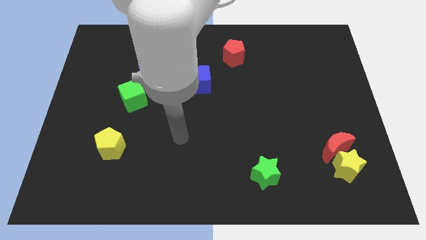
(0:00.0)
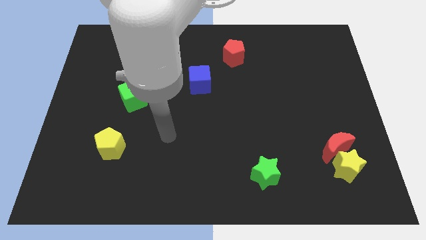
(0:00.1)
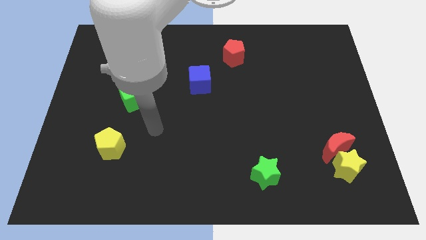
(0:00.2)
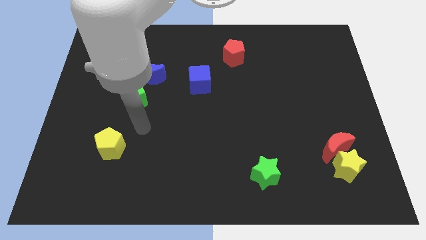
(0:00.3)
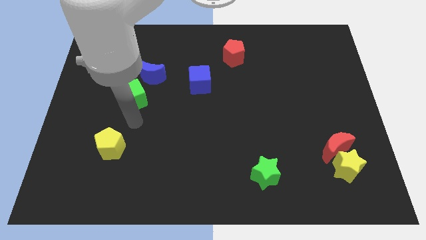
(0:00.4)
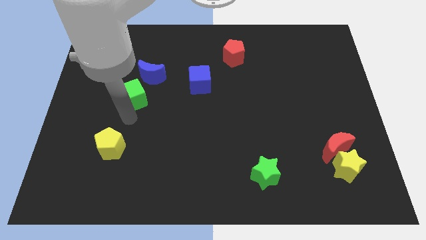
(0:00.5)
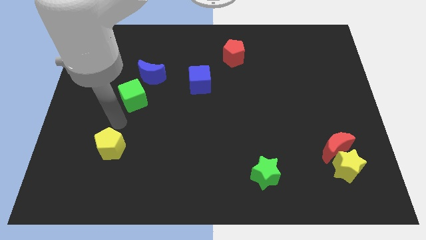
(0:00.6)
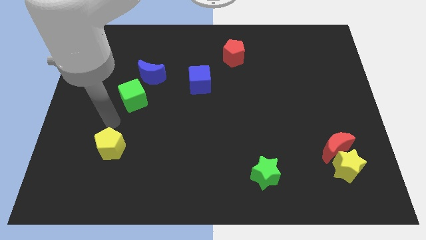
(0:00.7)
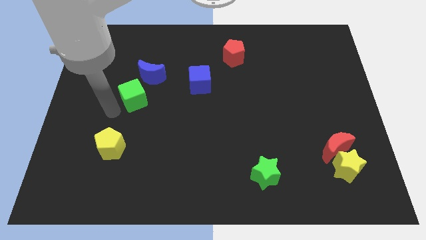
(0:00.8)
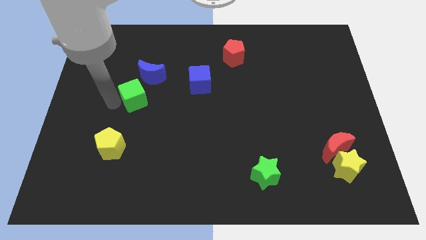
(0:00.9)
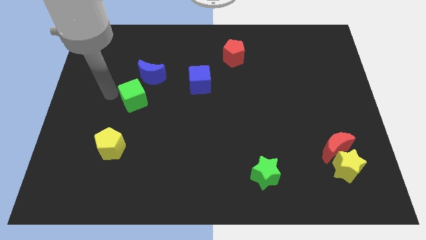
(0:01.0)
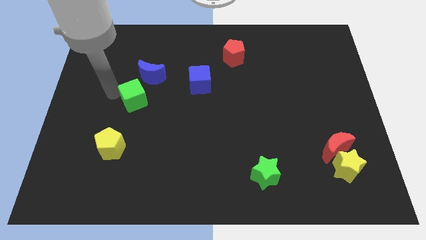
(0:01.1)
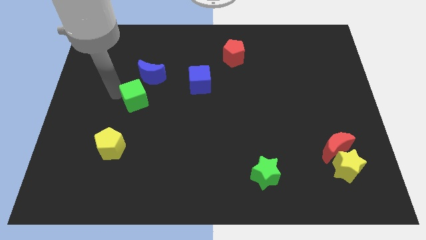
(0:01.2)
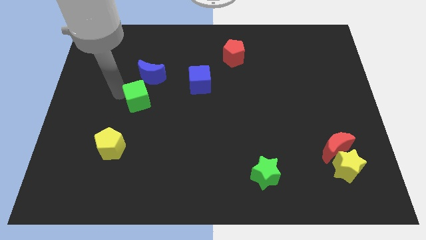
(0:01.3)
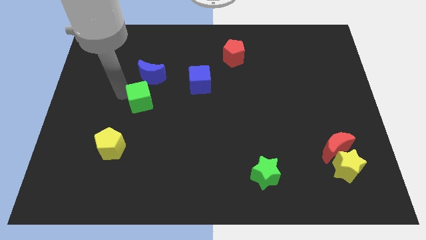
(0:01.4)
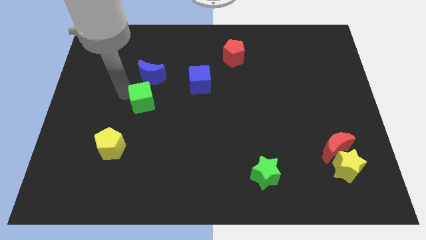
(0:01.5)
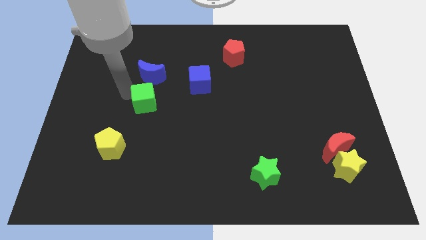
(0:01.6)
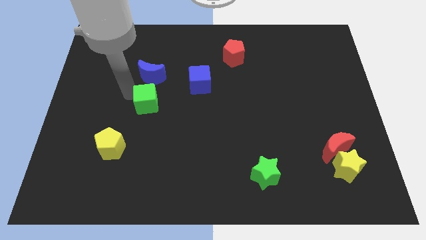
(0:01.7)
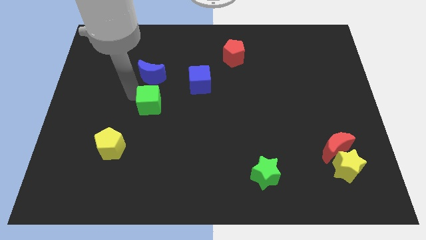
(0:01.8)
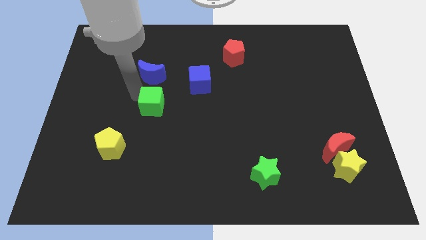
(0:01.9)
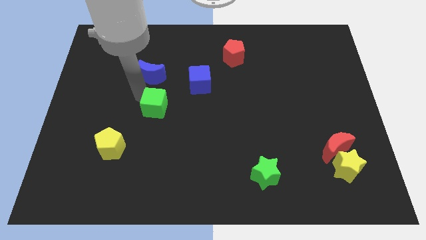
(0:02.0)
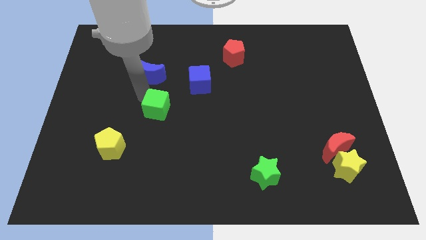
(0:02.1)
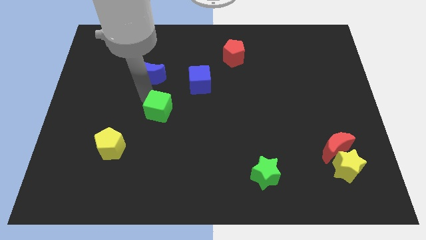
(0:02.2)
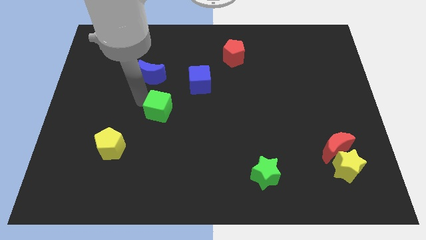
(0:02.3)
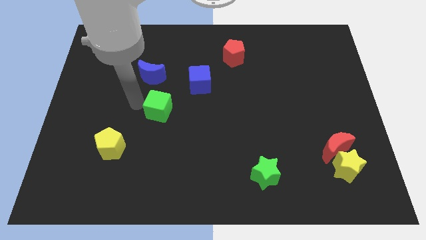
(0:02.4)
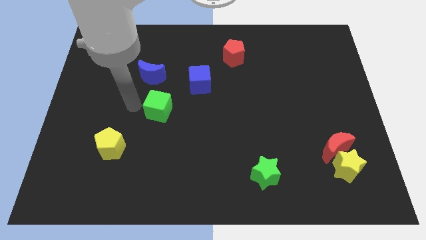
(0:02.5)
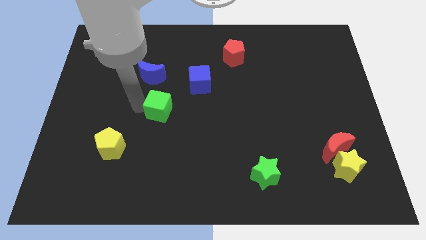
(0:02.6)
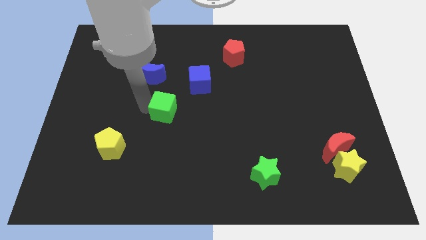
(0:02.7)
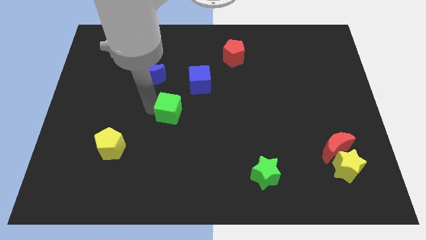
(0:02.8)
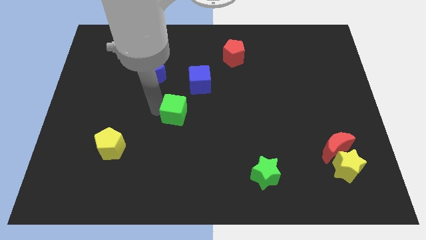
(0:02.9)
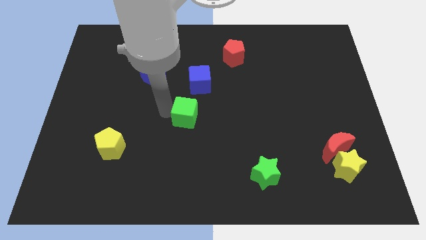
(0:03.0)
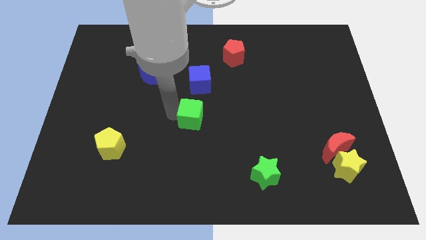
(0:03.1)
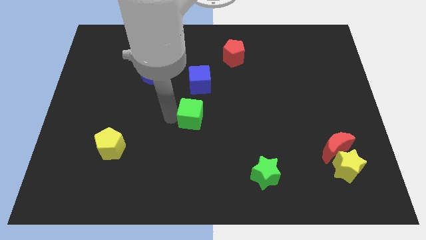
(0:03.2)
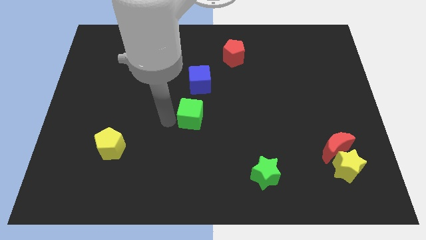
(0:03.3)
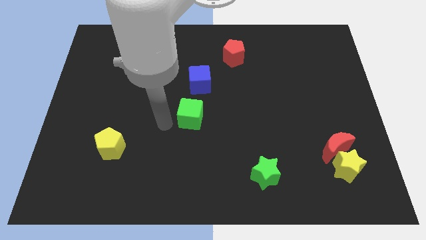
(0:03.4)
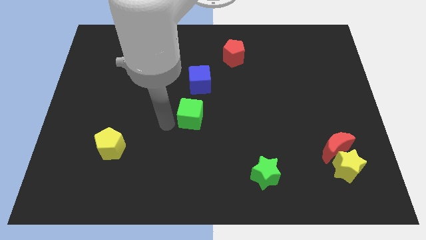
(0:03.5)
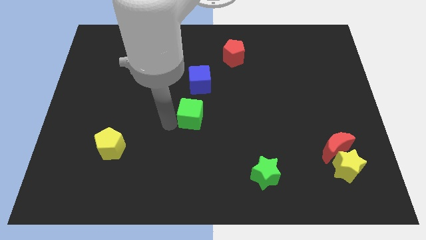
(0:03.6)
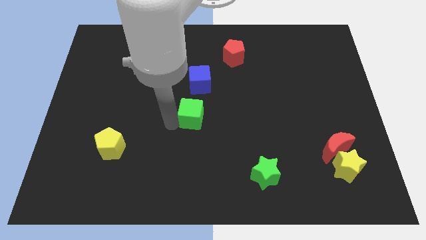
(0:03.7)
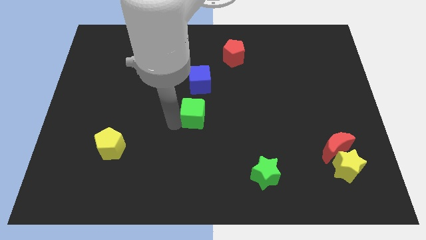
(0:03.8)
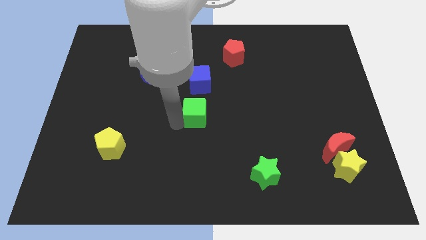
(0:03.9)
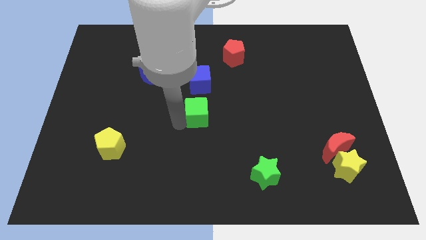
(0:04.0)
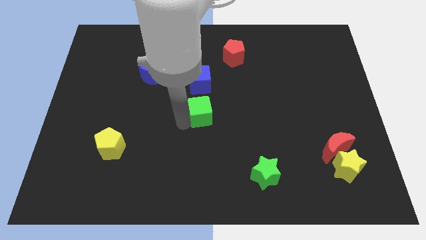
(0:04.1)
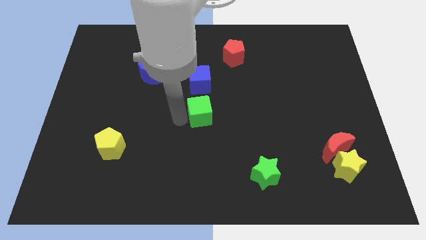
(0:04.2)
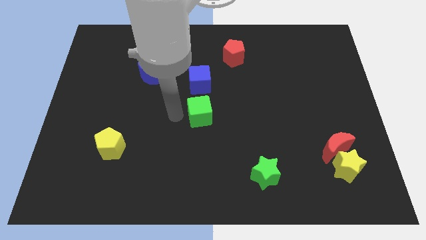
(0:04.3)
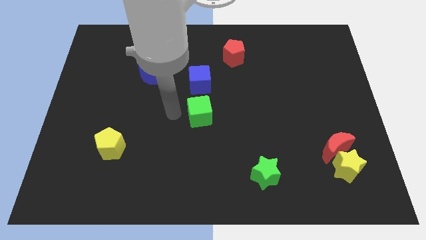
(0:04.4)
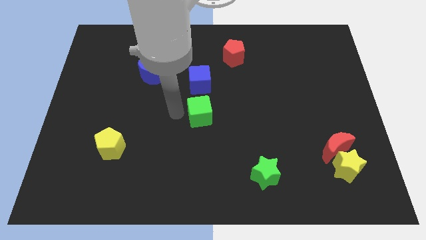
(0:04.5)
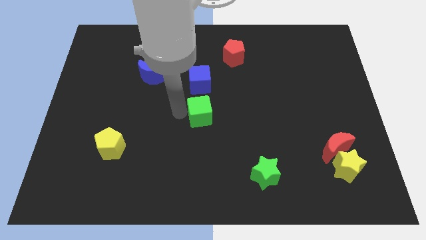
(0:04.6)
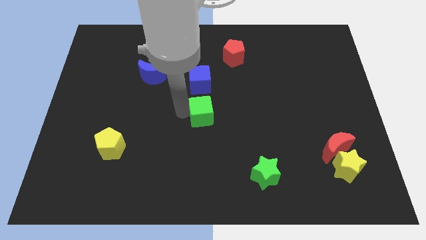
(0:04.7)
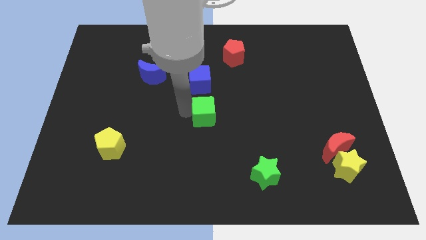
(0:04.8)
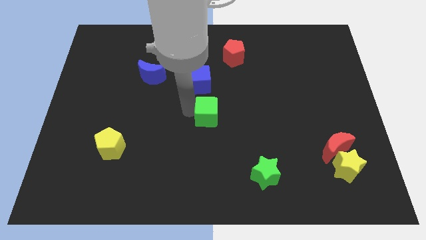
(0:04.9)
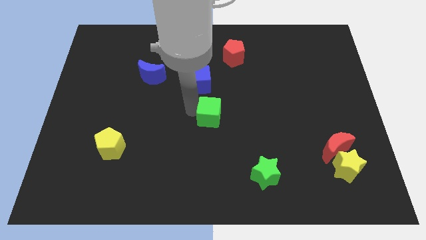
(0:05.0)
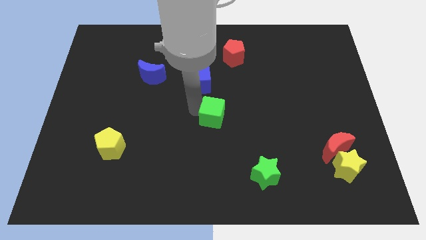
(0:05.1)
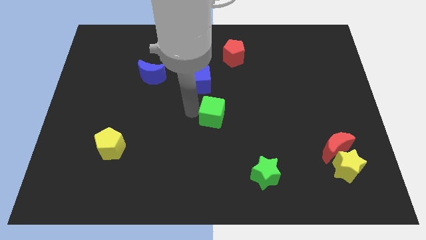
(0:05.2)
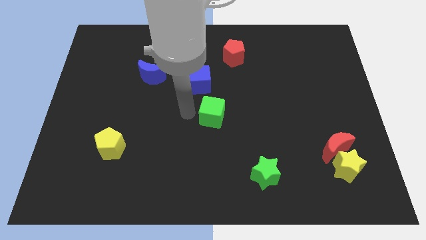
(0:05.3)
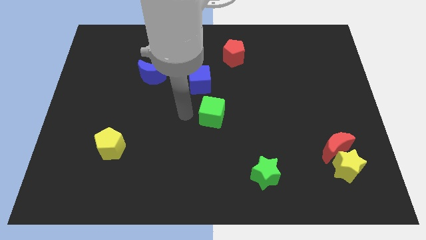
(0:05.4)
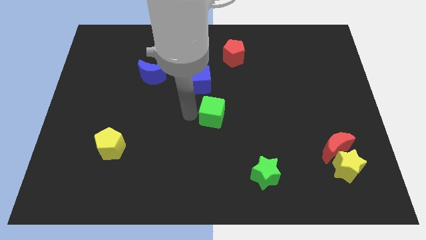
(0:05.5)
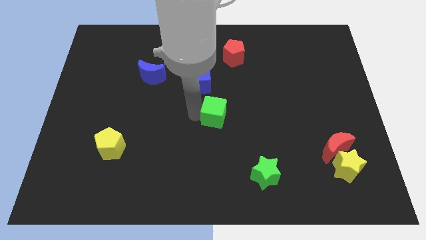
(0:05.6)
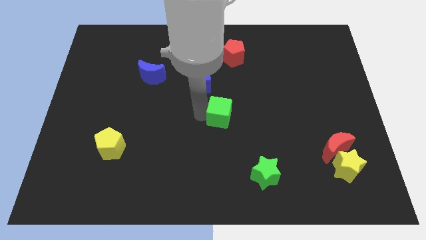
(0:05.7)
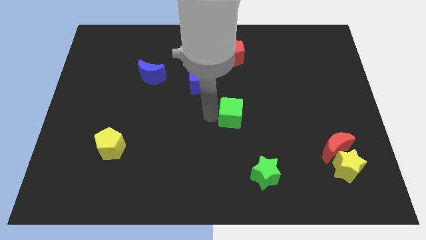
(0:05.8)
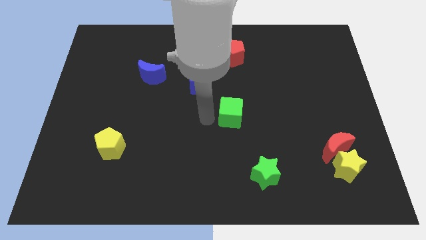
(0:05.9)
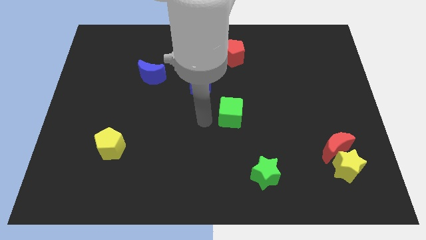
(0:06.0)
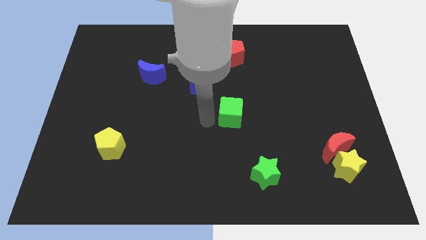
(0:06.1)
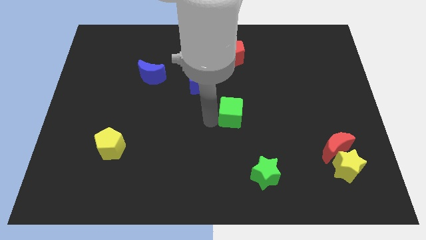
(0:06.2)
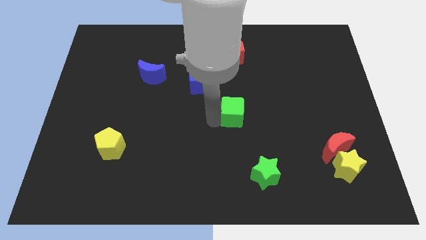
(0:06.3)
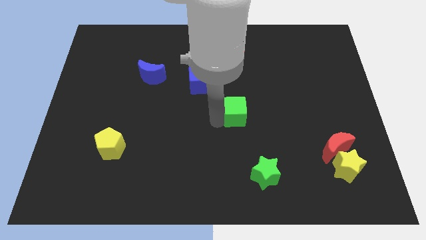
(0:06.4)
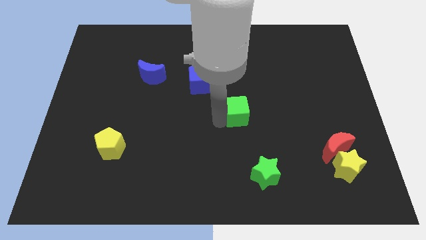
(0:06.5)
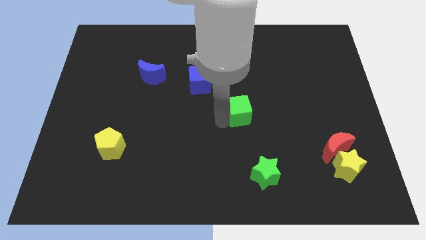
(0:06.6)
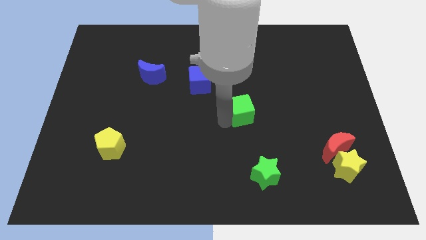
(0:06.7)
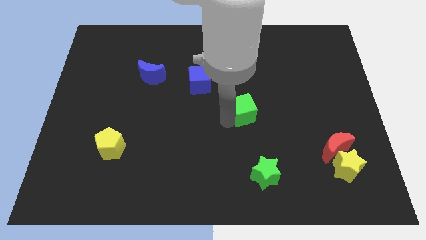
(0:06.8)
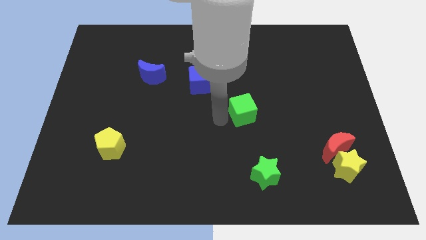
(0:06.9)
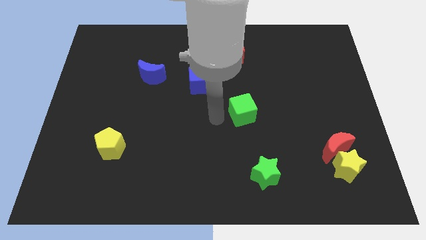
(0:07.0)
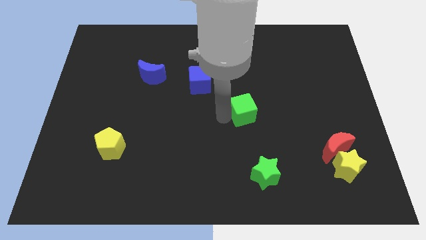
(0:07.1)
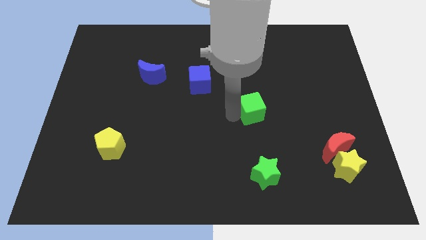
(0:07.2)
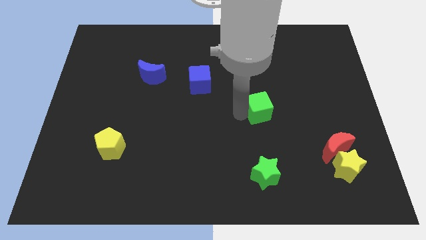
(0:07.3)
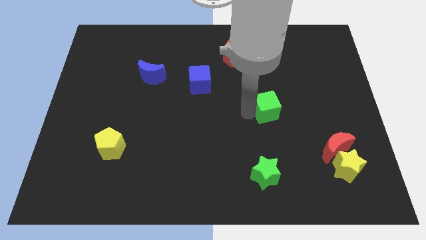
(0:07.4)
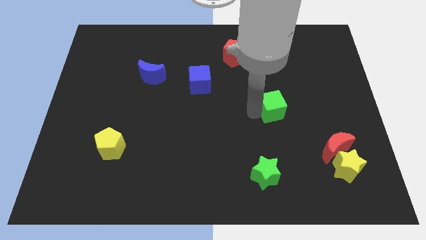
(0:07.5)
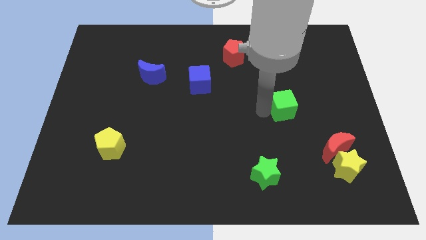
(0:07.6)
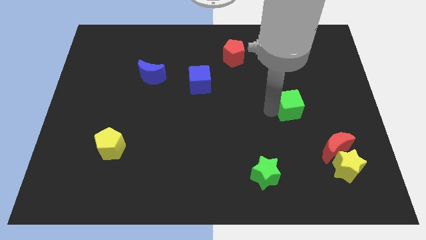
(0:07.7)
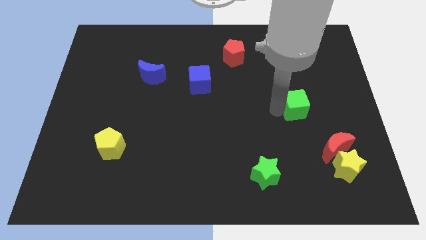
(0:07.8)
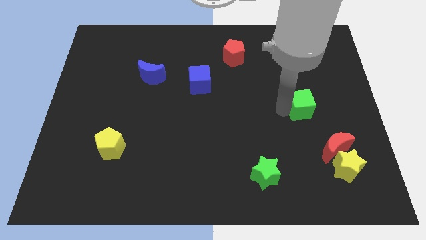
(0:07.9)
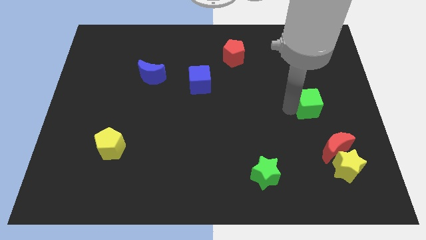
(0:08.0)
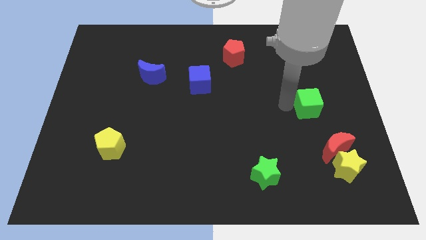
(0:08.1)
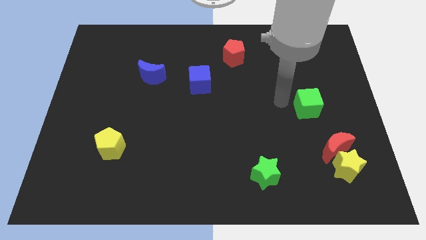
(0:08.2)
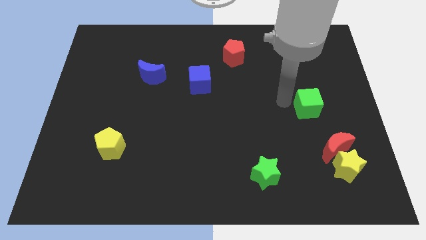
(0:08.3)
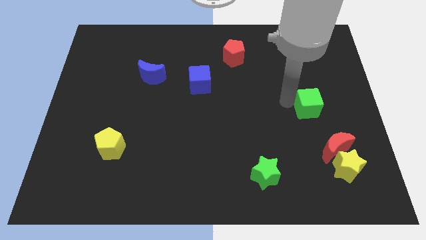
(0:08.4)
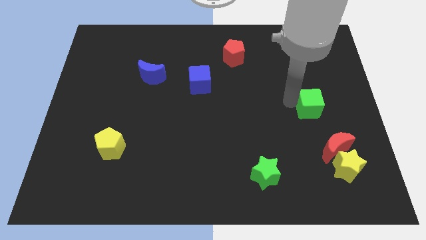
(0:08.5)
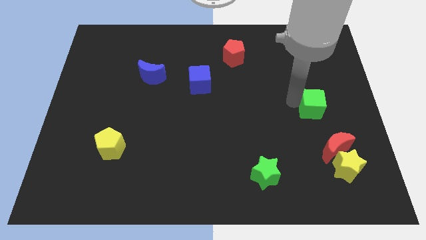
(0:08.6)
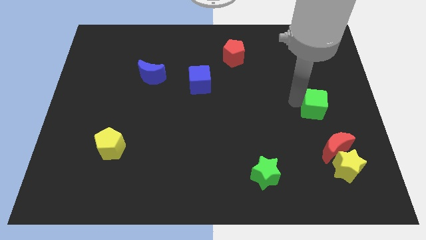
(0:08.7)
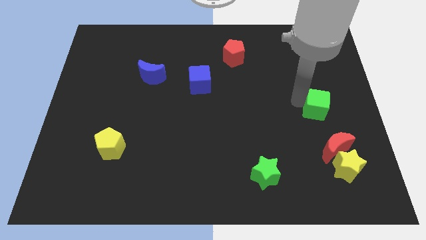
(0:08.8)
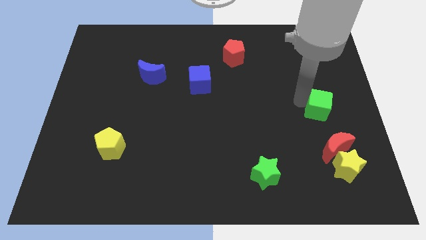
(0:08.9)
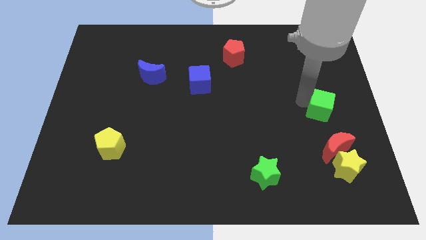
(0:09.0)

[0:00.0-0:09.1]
move the green cube to the right side of the board
